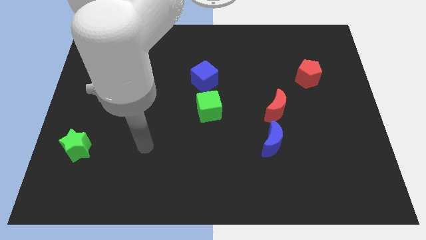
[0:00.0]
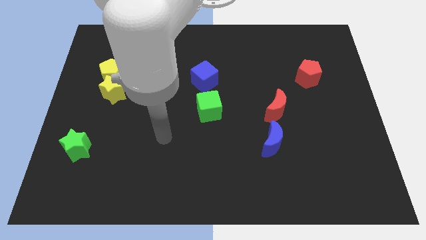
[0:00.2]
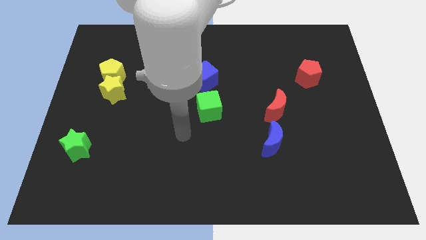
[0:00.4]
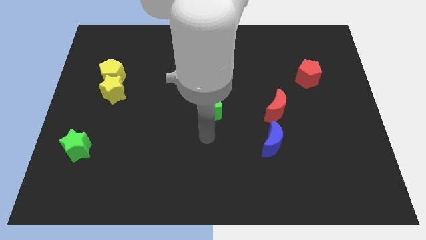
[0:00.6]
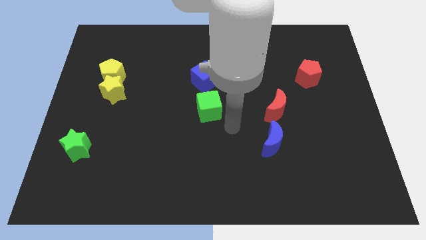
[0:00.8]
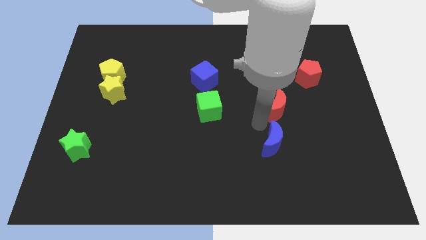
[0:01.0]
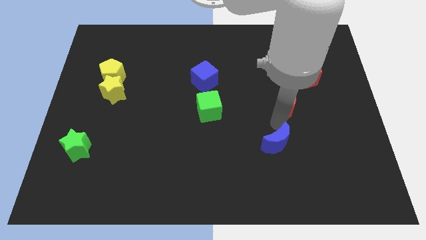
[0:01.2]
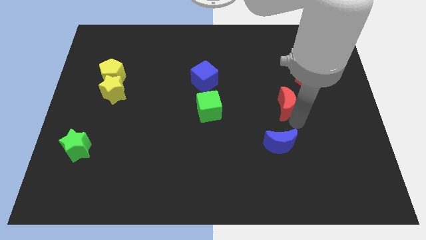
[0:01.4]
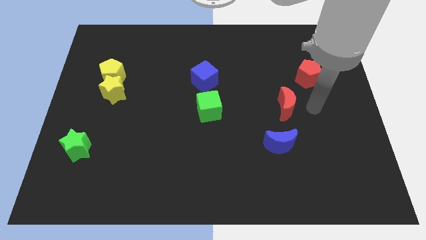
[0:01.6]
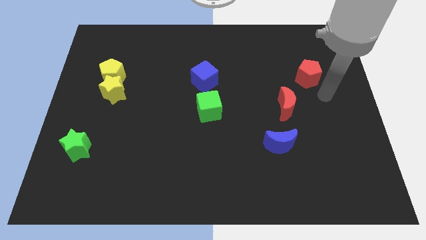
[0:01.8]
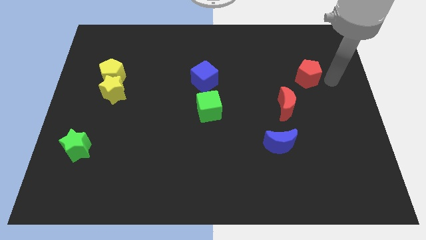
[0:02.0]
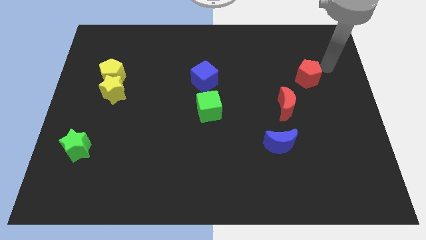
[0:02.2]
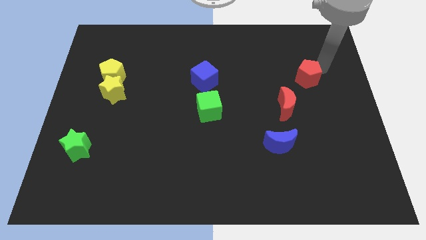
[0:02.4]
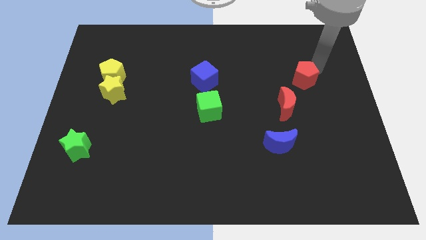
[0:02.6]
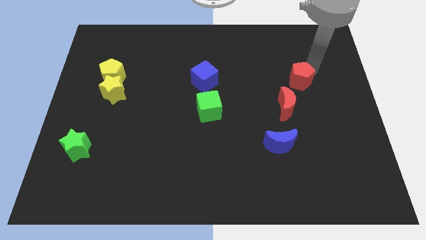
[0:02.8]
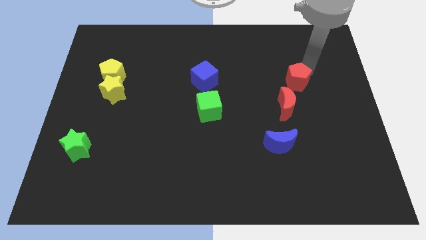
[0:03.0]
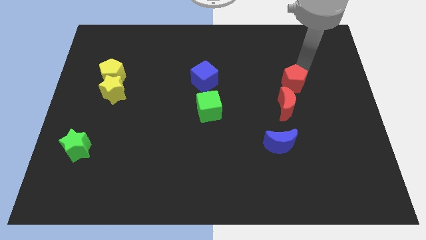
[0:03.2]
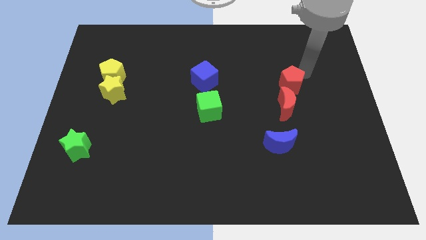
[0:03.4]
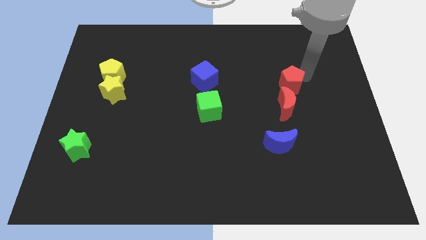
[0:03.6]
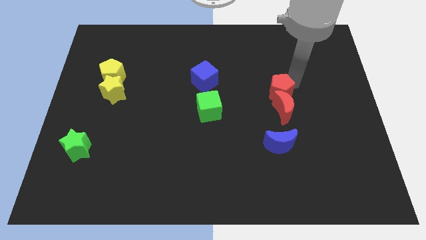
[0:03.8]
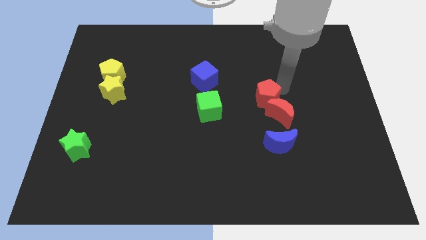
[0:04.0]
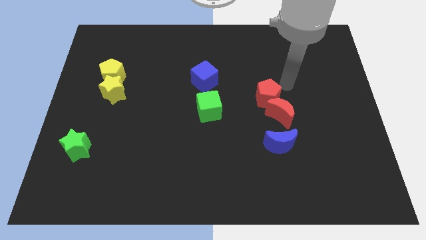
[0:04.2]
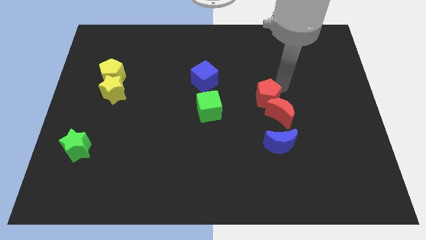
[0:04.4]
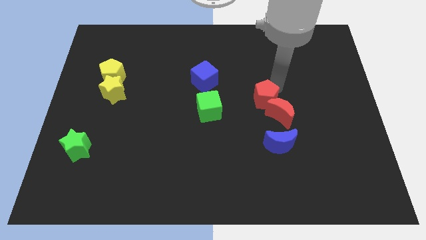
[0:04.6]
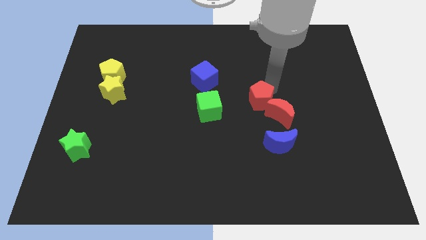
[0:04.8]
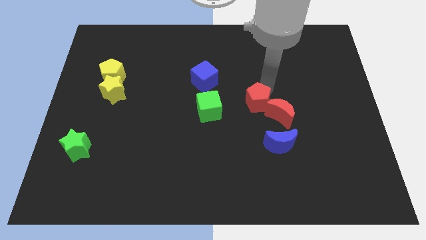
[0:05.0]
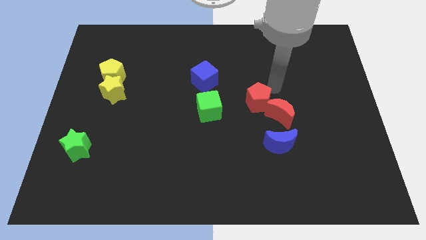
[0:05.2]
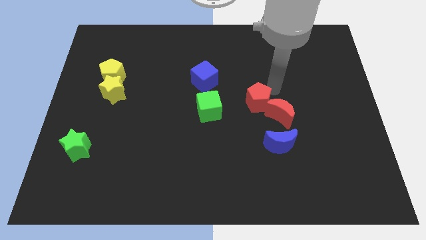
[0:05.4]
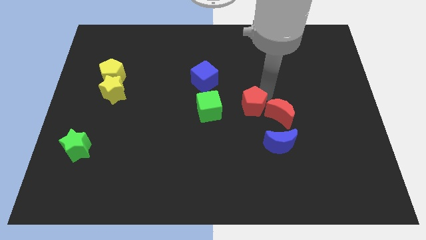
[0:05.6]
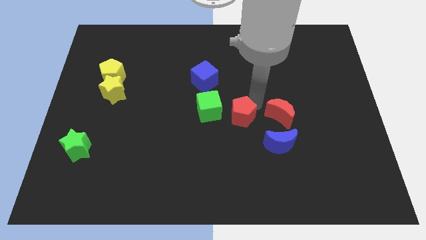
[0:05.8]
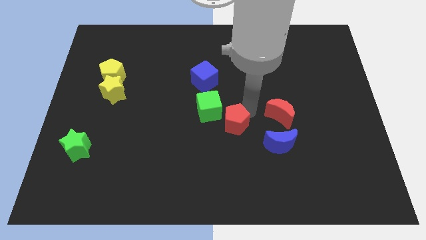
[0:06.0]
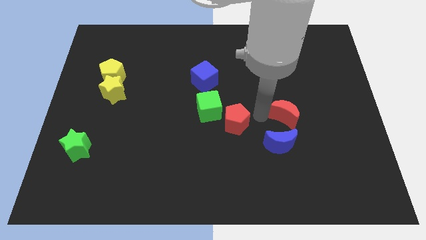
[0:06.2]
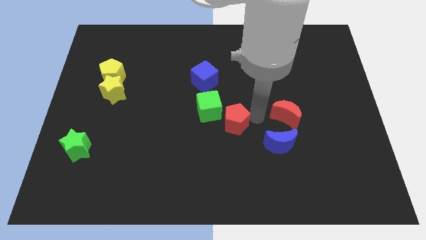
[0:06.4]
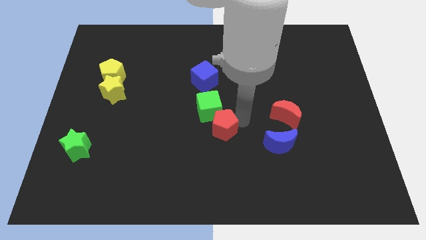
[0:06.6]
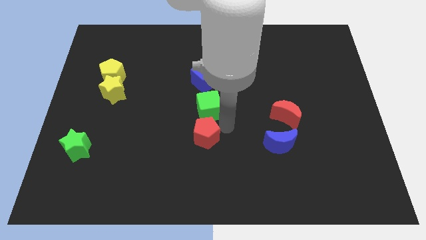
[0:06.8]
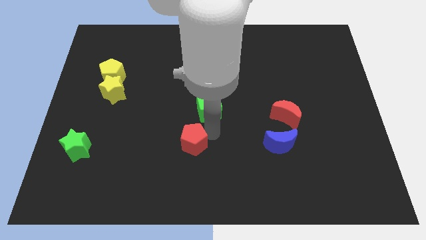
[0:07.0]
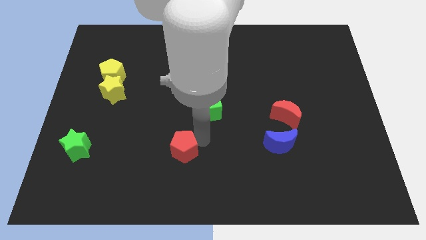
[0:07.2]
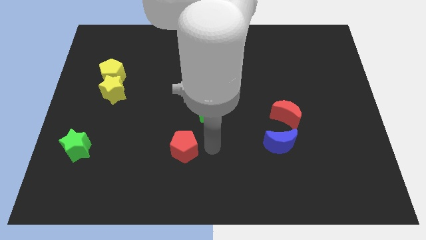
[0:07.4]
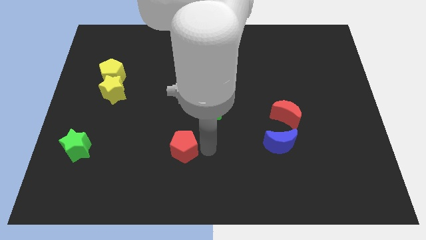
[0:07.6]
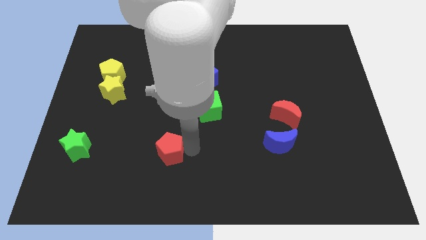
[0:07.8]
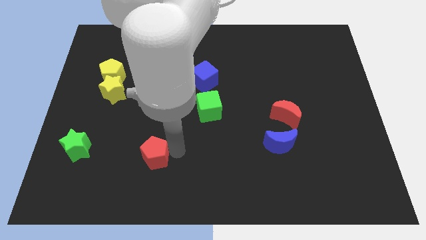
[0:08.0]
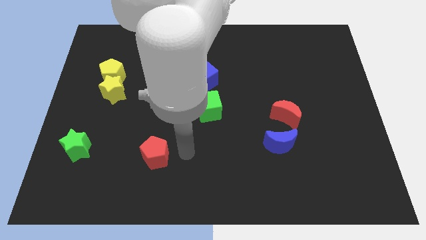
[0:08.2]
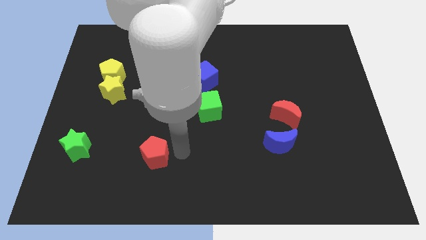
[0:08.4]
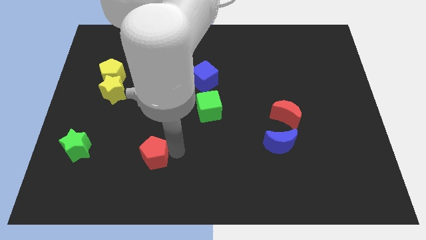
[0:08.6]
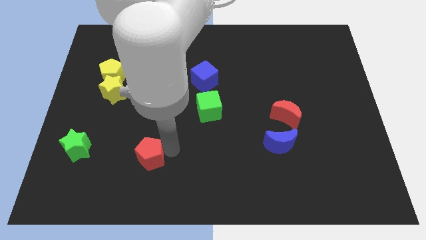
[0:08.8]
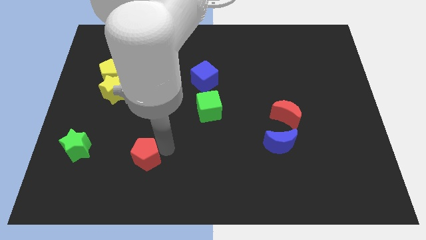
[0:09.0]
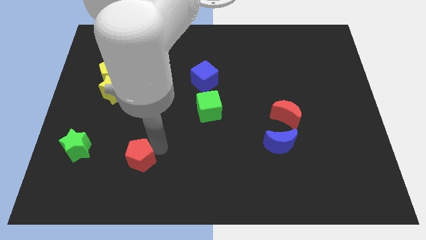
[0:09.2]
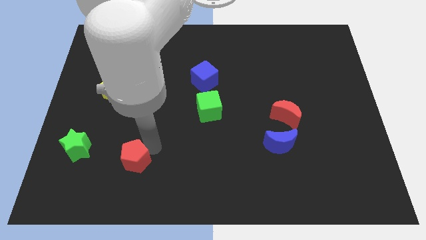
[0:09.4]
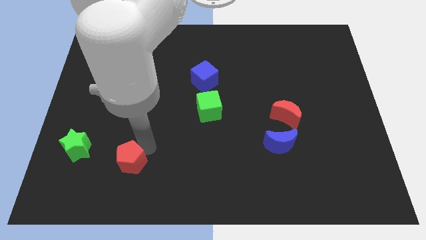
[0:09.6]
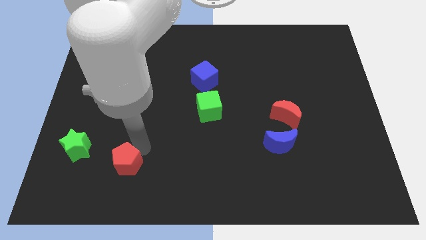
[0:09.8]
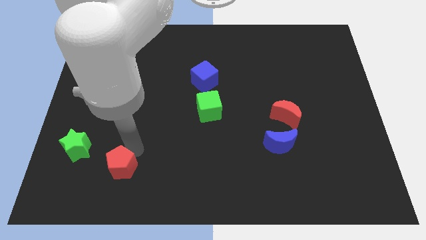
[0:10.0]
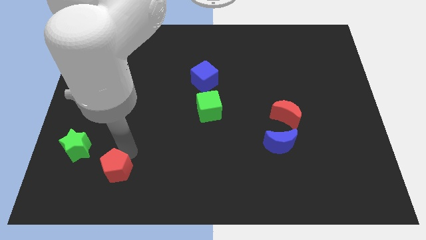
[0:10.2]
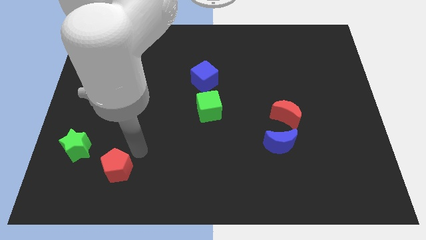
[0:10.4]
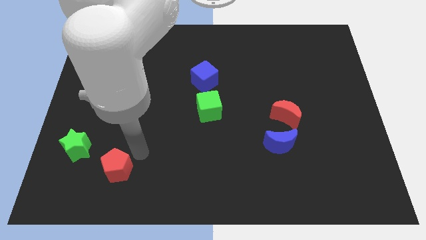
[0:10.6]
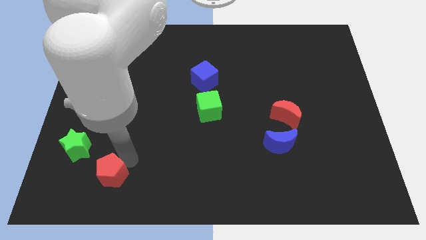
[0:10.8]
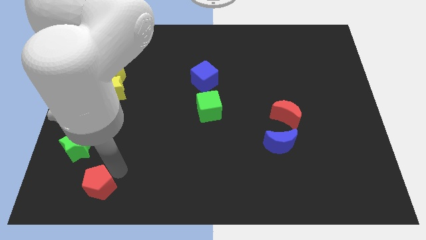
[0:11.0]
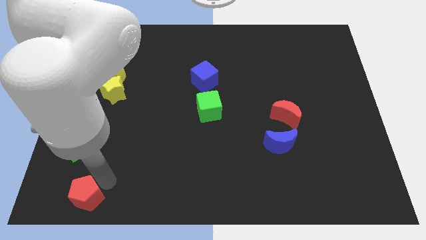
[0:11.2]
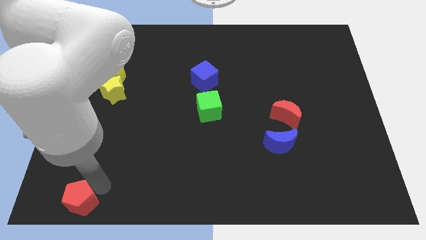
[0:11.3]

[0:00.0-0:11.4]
move the red pentagon to the lower left corner
